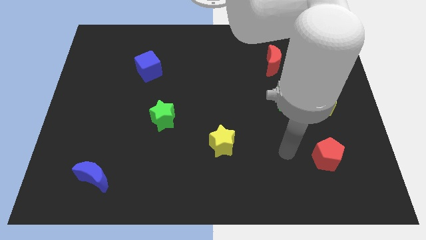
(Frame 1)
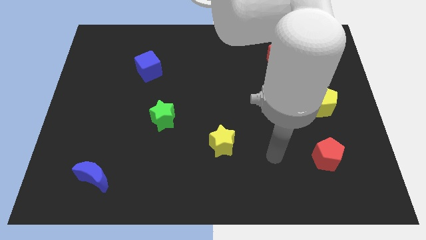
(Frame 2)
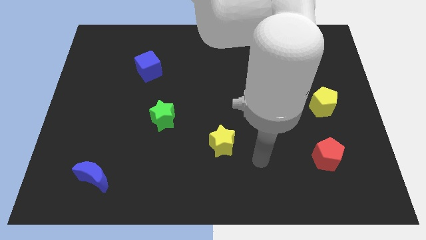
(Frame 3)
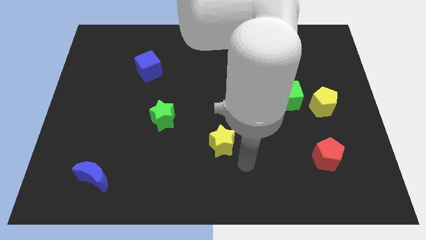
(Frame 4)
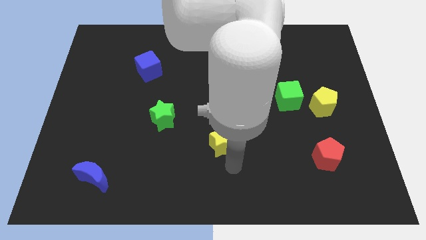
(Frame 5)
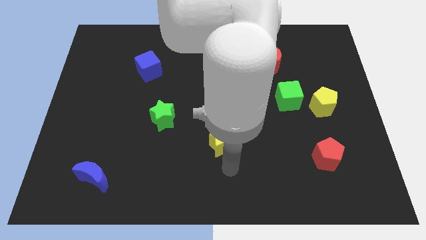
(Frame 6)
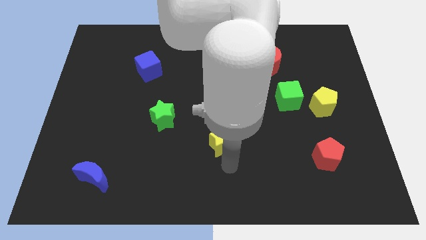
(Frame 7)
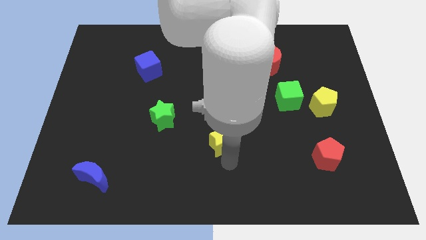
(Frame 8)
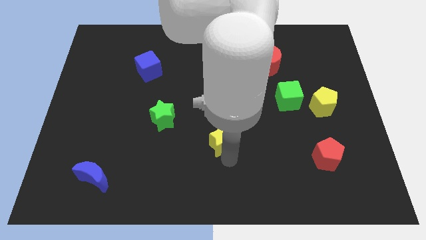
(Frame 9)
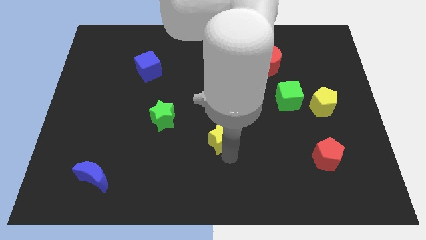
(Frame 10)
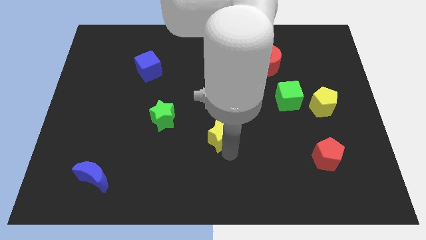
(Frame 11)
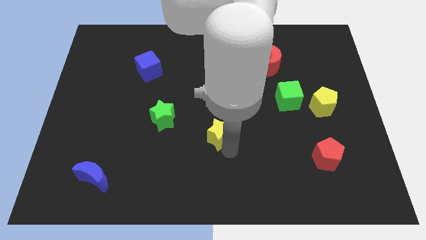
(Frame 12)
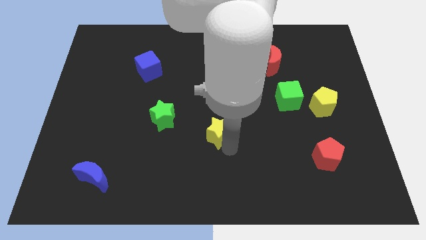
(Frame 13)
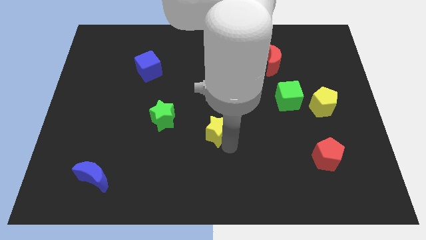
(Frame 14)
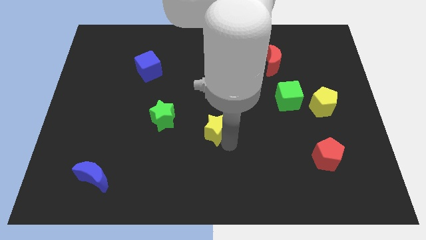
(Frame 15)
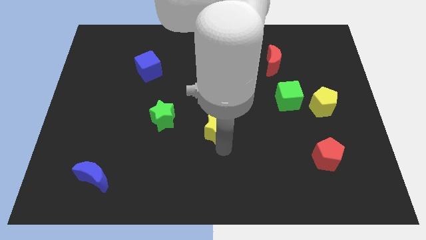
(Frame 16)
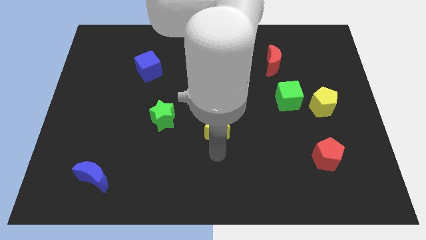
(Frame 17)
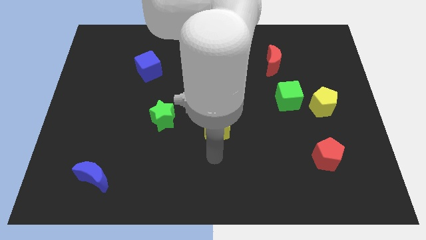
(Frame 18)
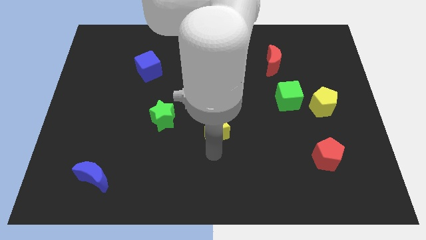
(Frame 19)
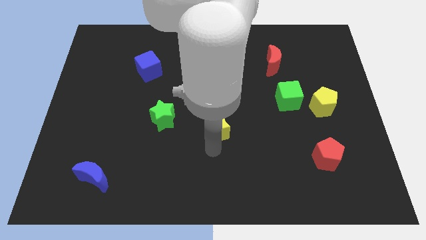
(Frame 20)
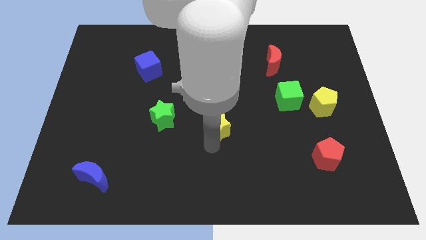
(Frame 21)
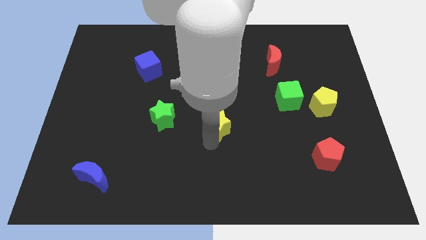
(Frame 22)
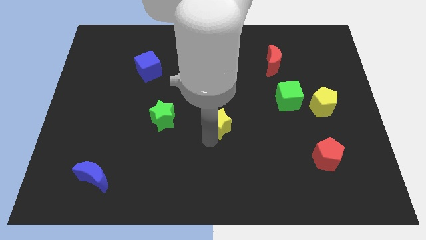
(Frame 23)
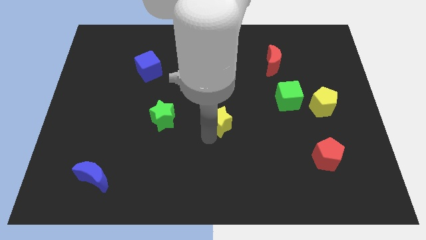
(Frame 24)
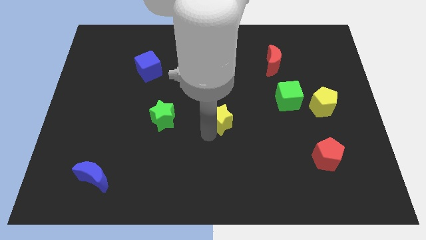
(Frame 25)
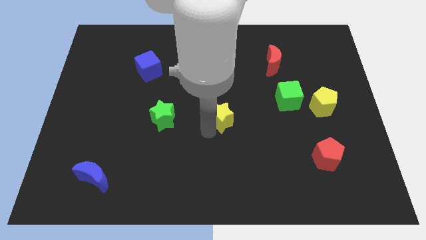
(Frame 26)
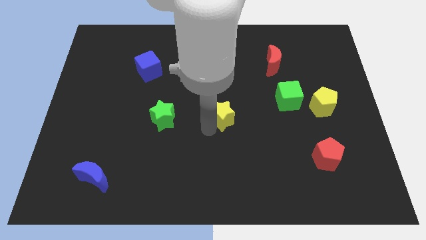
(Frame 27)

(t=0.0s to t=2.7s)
slightly move the yellow star up

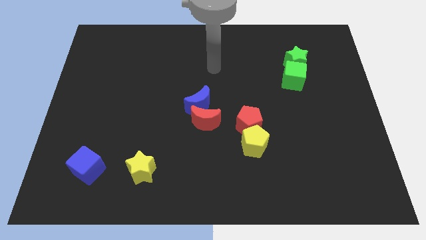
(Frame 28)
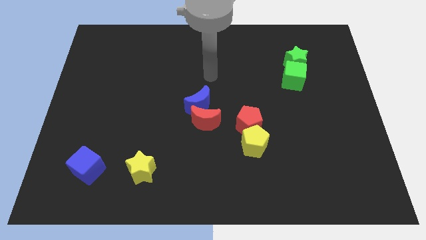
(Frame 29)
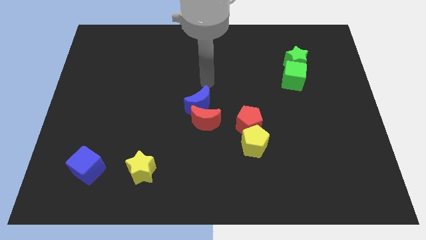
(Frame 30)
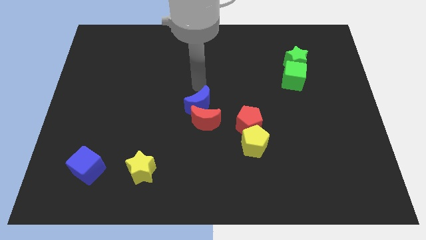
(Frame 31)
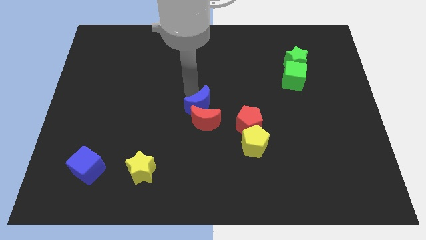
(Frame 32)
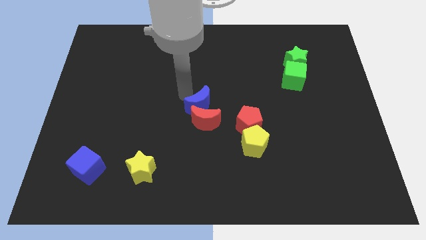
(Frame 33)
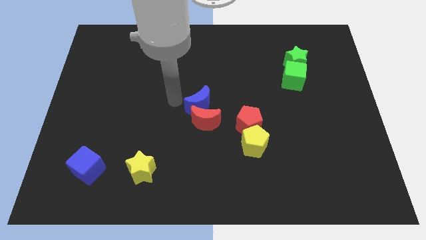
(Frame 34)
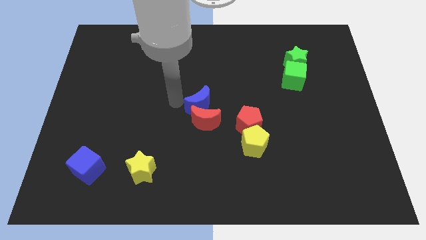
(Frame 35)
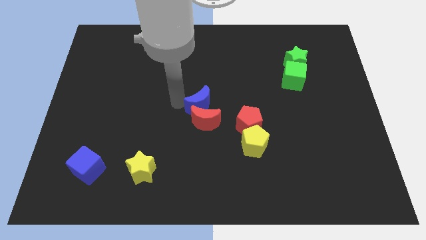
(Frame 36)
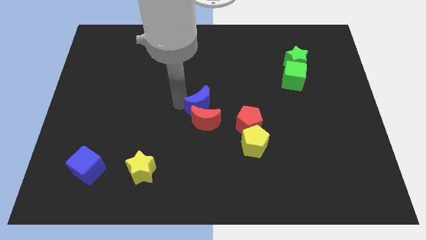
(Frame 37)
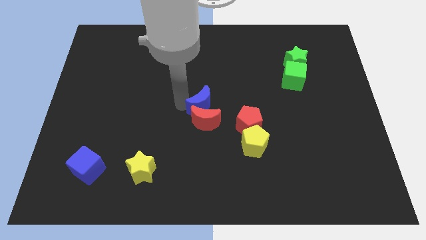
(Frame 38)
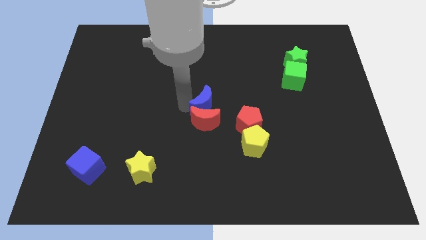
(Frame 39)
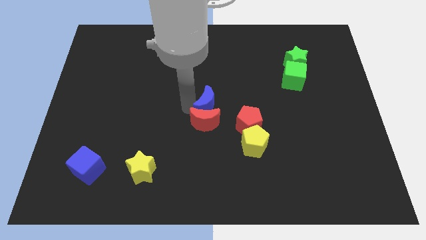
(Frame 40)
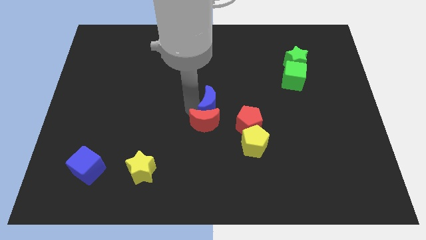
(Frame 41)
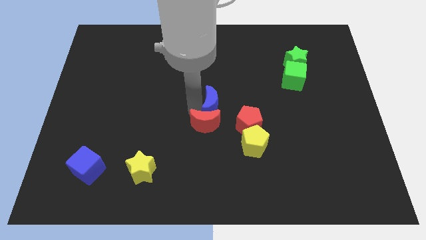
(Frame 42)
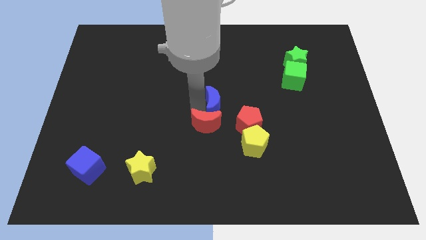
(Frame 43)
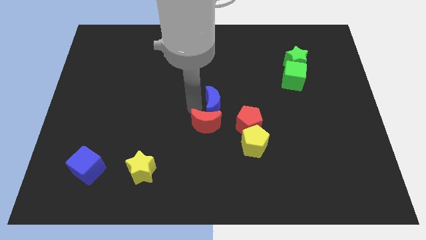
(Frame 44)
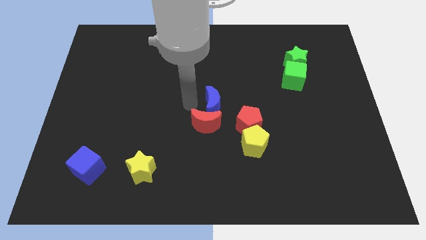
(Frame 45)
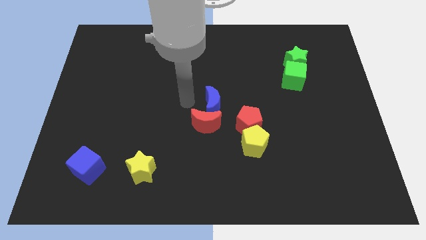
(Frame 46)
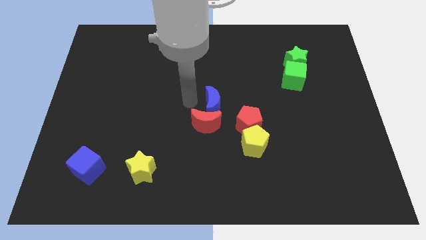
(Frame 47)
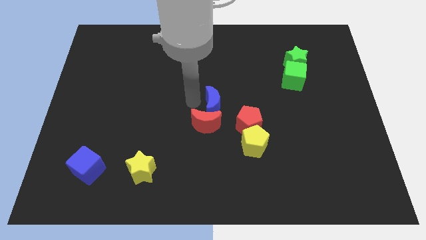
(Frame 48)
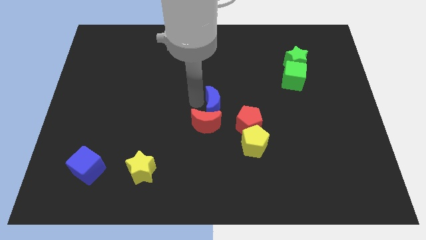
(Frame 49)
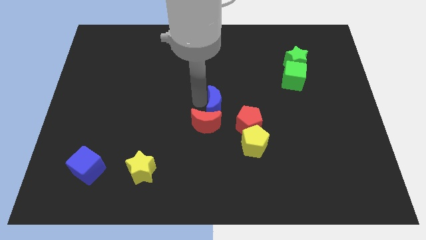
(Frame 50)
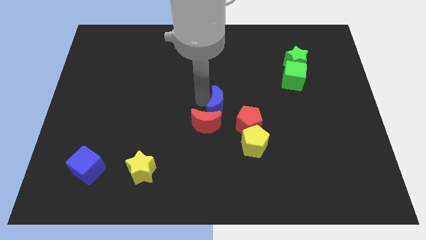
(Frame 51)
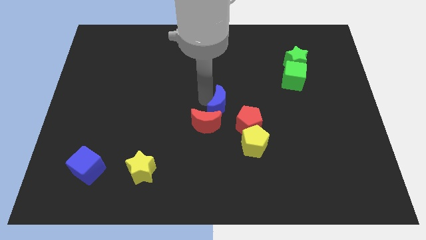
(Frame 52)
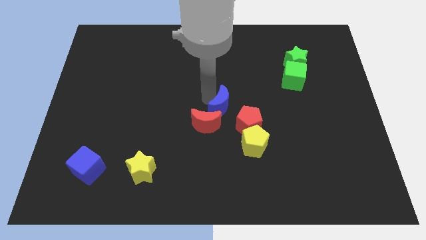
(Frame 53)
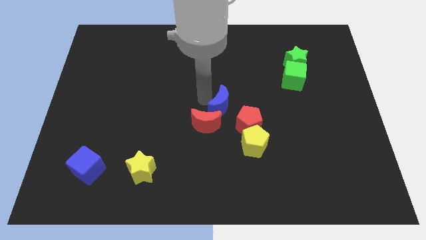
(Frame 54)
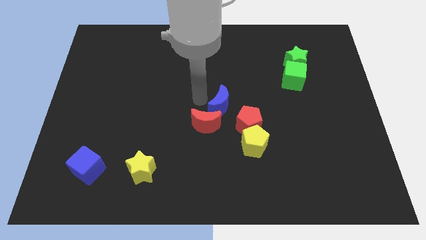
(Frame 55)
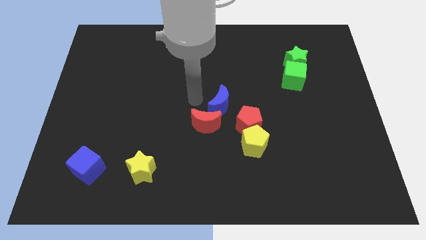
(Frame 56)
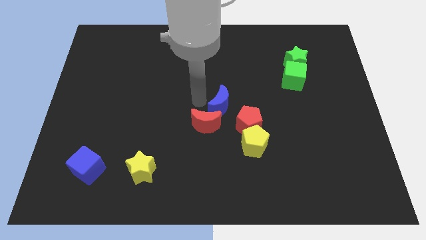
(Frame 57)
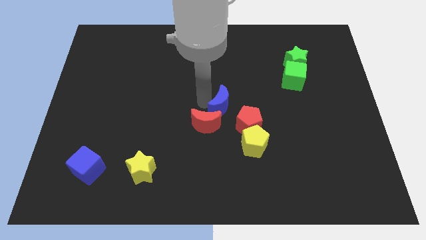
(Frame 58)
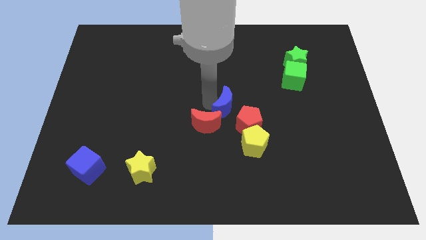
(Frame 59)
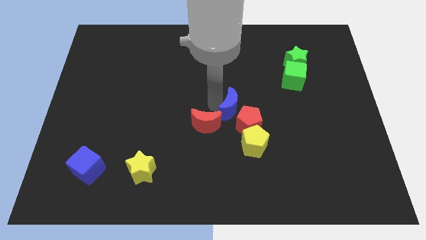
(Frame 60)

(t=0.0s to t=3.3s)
slightly push the blue moon right

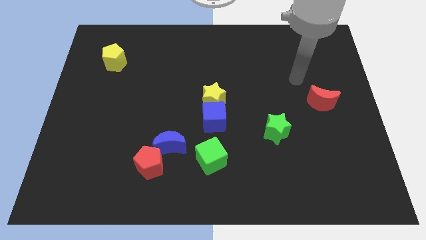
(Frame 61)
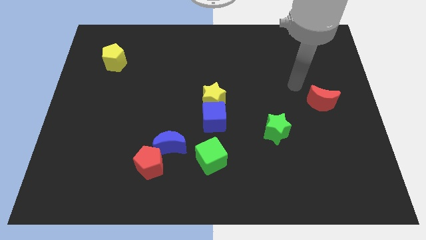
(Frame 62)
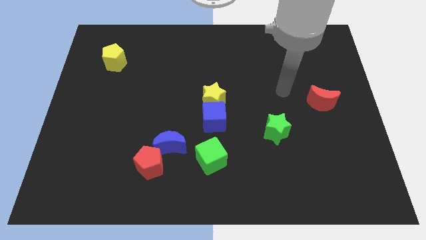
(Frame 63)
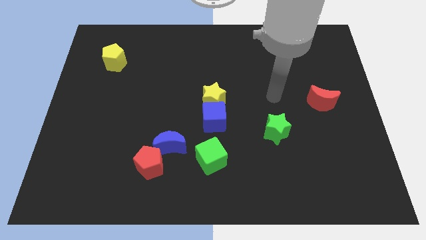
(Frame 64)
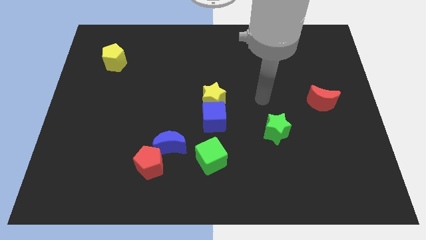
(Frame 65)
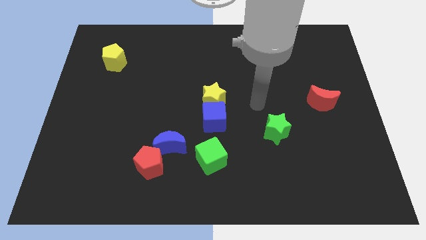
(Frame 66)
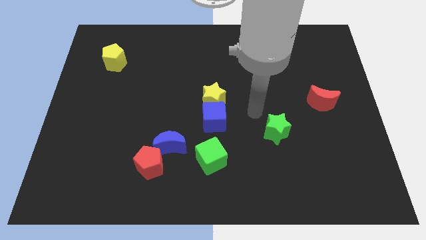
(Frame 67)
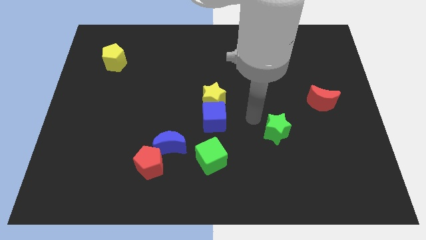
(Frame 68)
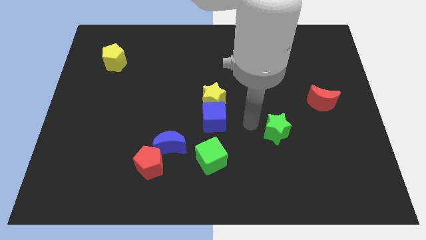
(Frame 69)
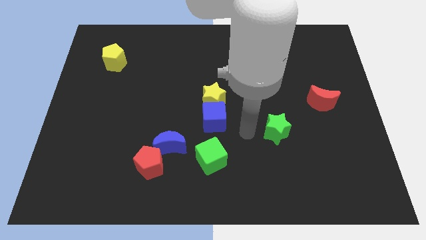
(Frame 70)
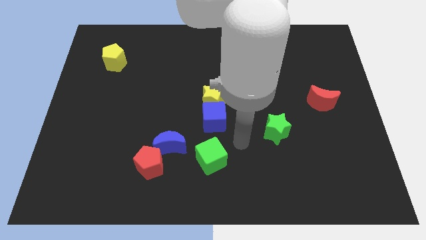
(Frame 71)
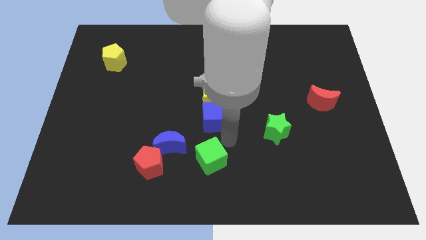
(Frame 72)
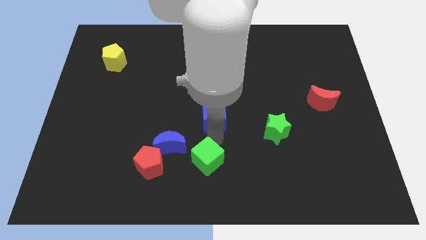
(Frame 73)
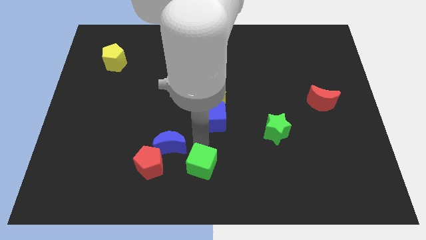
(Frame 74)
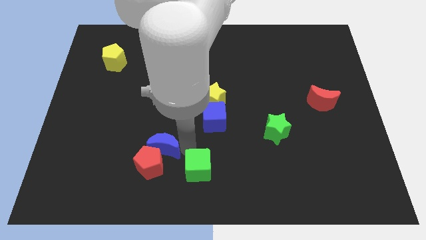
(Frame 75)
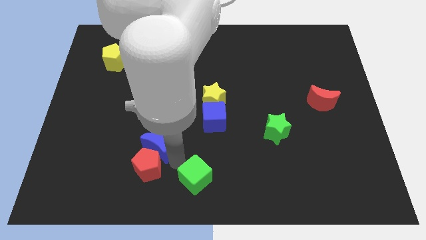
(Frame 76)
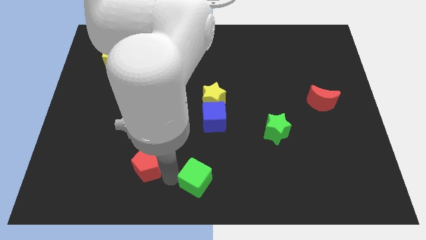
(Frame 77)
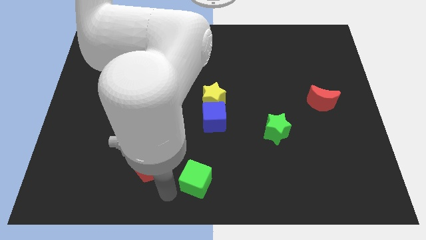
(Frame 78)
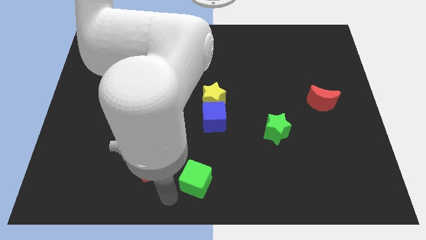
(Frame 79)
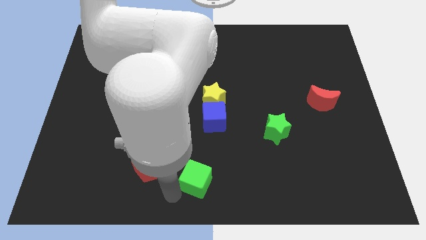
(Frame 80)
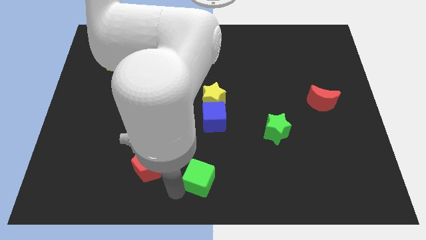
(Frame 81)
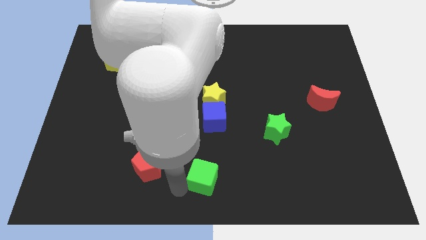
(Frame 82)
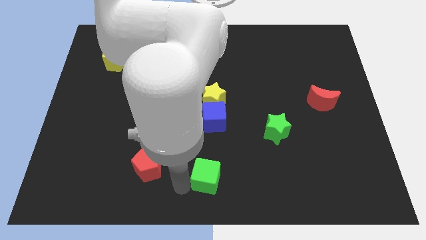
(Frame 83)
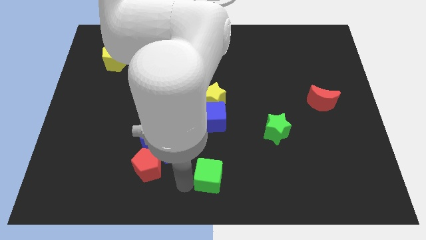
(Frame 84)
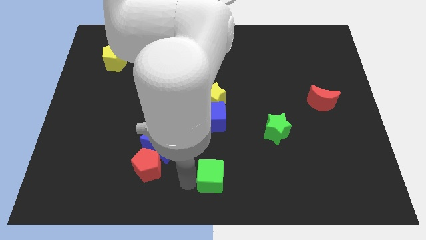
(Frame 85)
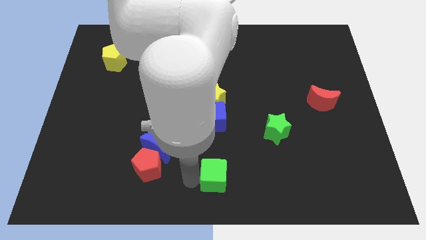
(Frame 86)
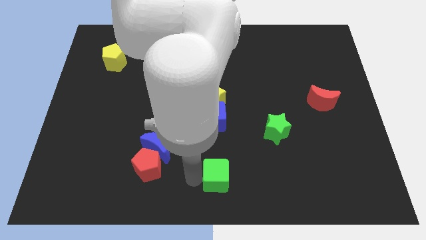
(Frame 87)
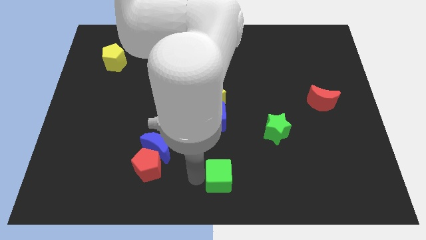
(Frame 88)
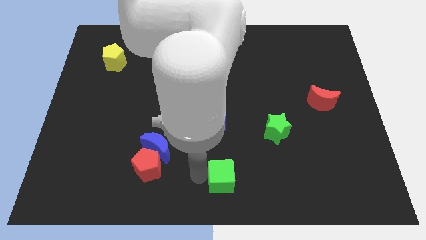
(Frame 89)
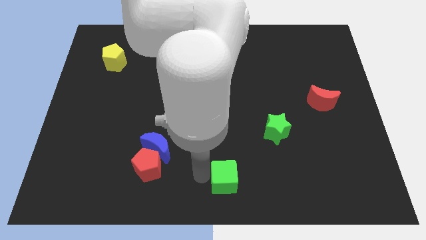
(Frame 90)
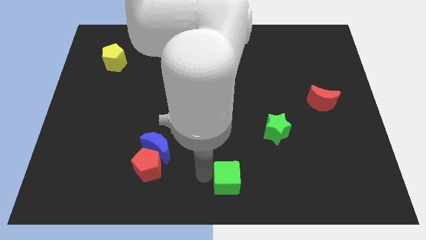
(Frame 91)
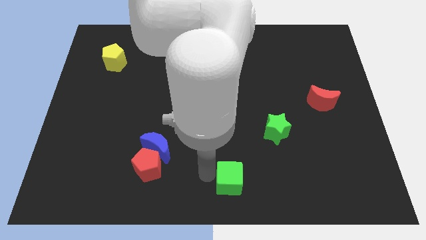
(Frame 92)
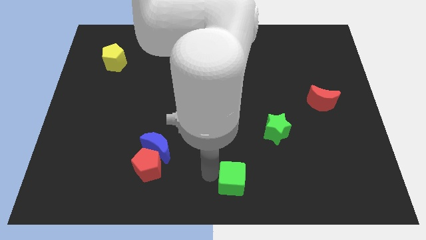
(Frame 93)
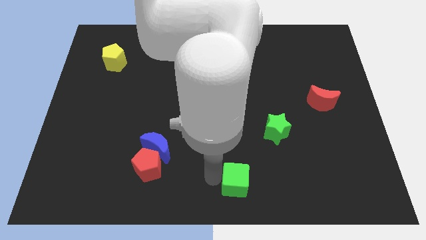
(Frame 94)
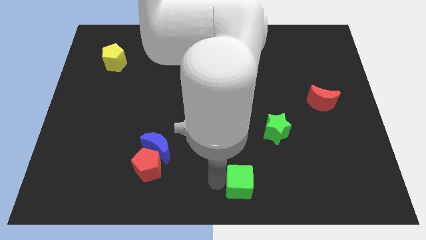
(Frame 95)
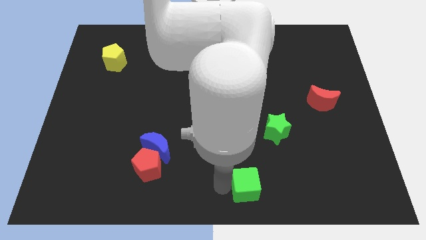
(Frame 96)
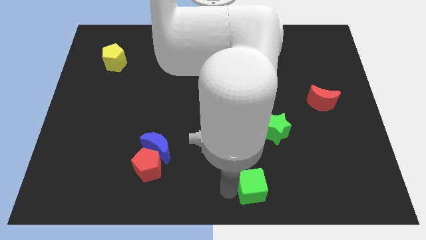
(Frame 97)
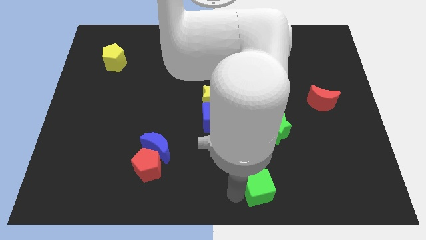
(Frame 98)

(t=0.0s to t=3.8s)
slightly move the green cube to the right
